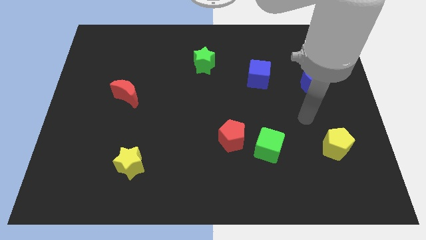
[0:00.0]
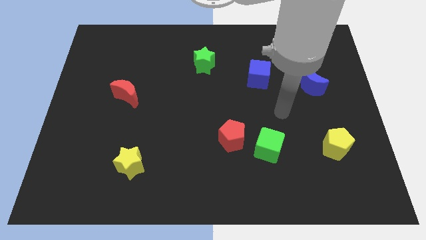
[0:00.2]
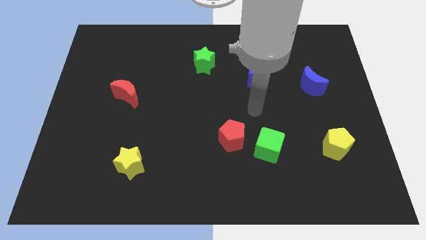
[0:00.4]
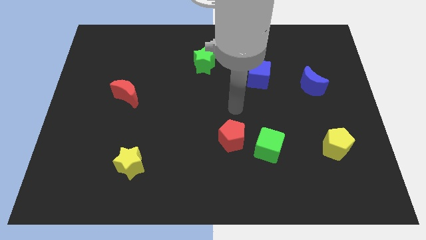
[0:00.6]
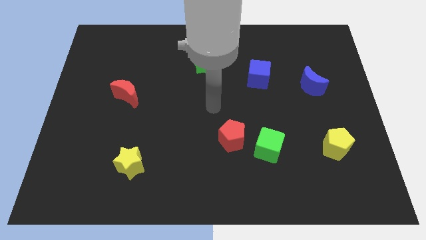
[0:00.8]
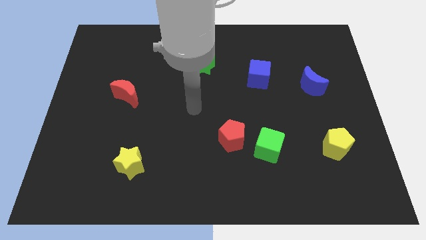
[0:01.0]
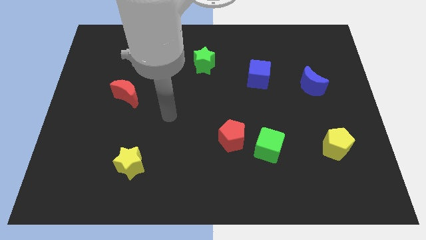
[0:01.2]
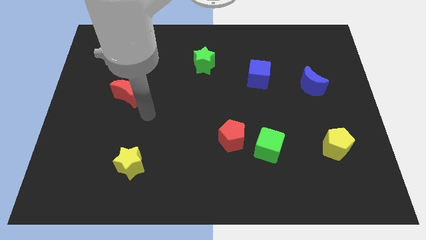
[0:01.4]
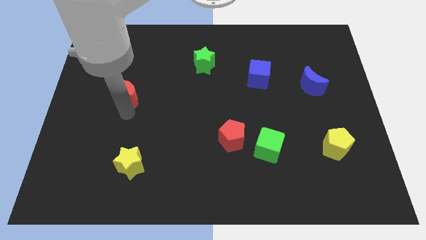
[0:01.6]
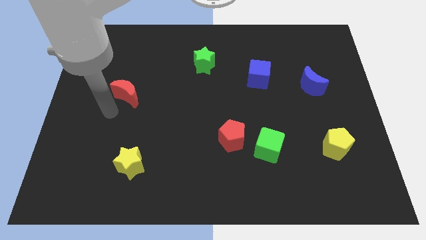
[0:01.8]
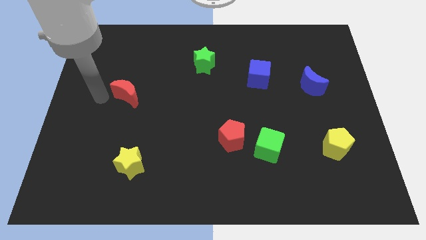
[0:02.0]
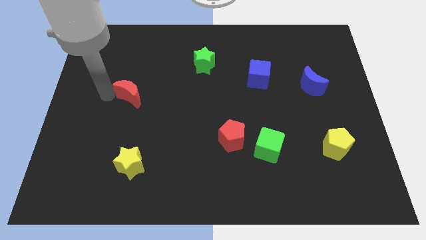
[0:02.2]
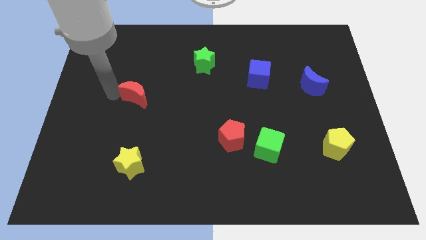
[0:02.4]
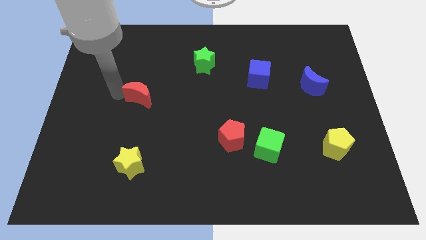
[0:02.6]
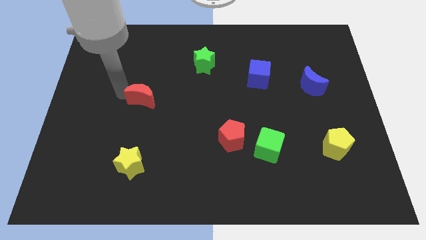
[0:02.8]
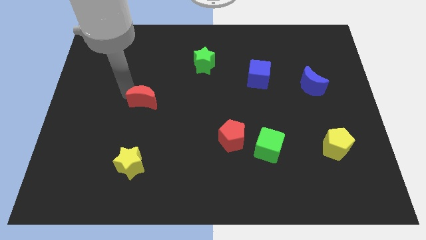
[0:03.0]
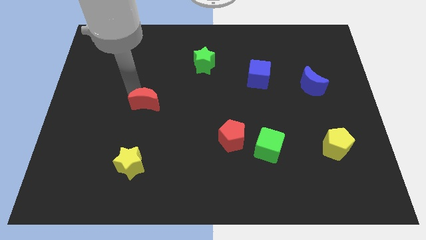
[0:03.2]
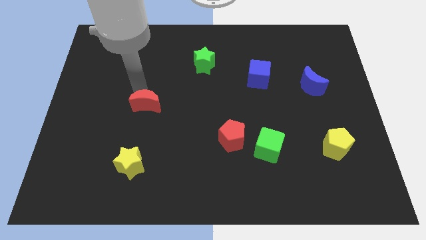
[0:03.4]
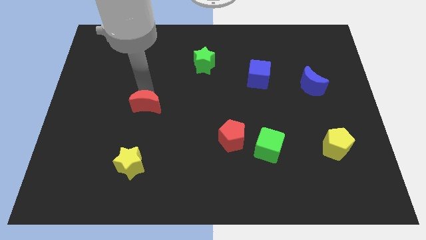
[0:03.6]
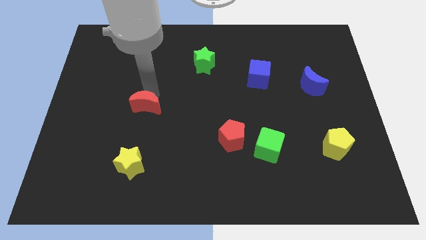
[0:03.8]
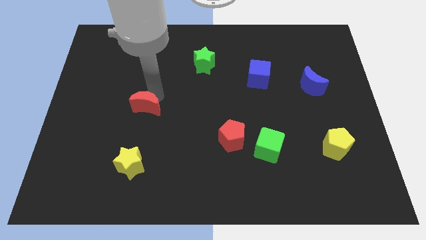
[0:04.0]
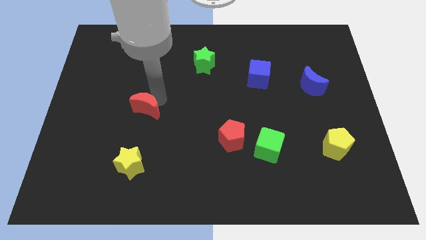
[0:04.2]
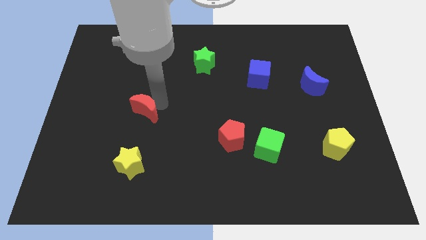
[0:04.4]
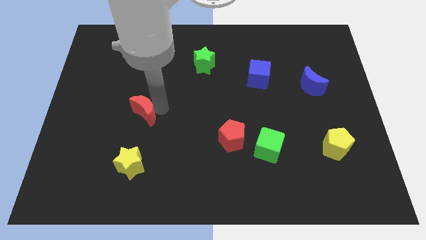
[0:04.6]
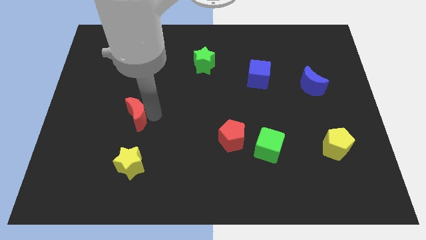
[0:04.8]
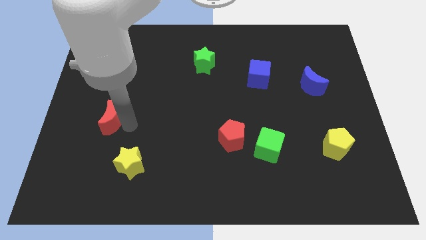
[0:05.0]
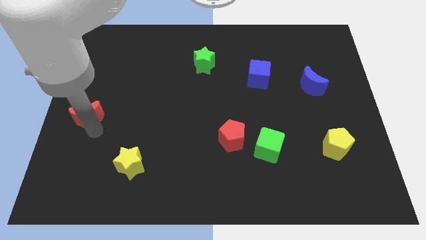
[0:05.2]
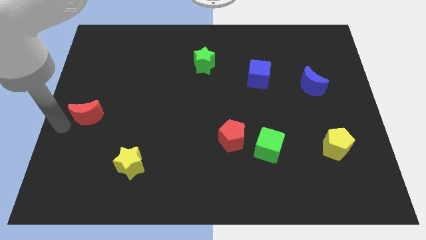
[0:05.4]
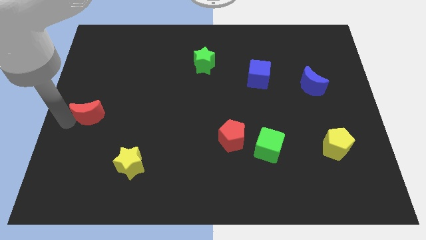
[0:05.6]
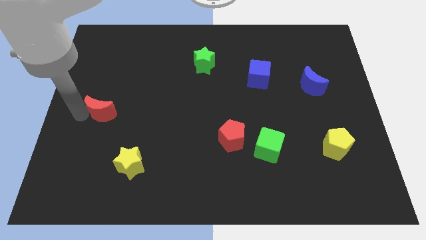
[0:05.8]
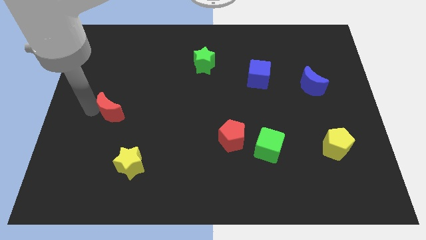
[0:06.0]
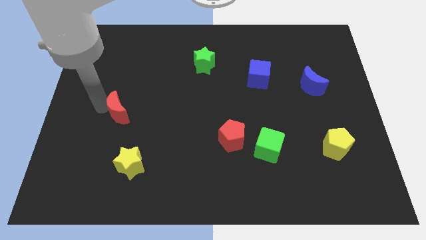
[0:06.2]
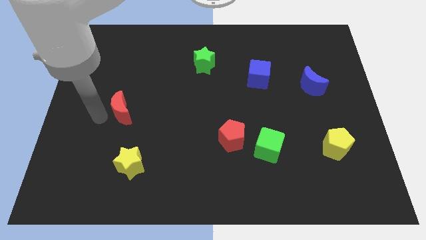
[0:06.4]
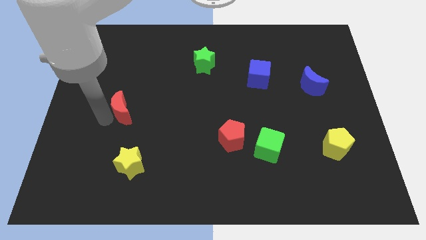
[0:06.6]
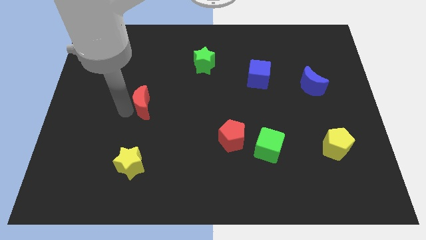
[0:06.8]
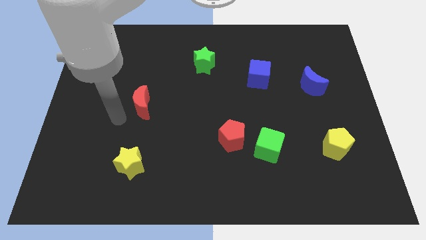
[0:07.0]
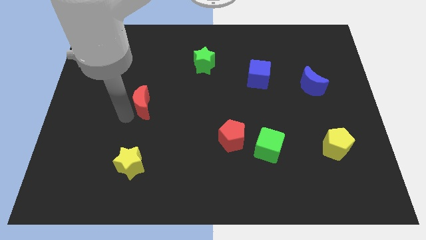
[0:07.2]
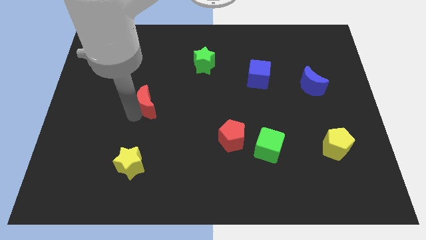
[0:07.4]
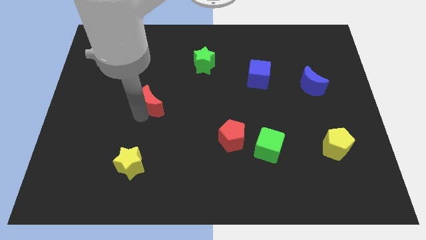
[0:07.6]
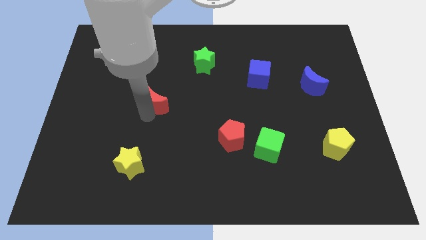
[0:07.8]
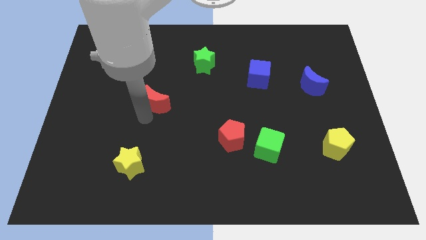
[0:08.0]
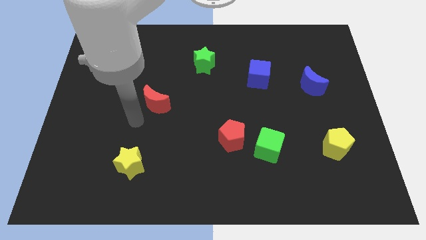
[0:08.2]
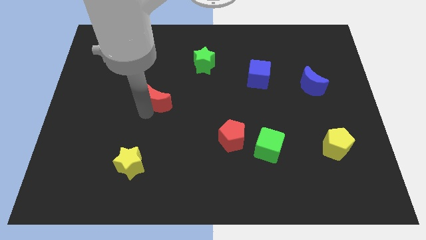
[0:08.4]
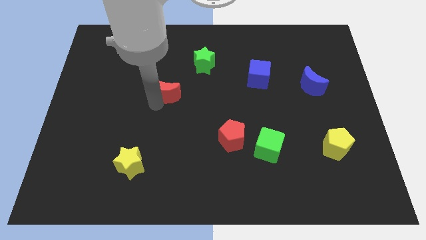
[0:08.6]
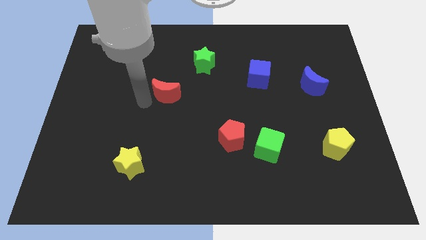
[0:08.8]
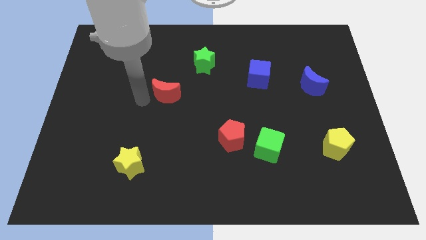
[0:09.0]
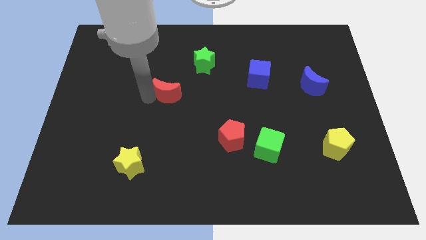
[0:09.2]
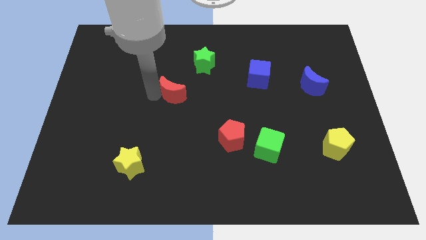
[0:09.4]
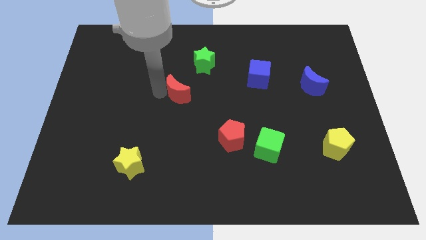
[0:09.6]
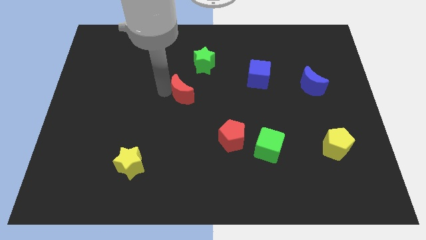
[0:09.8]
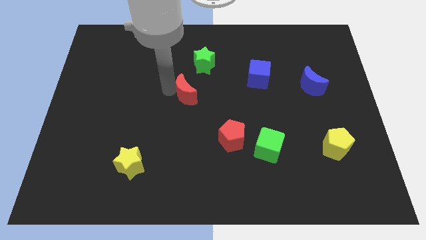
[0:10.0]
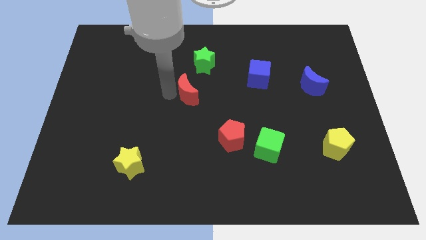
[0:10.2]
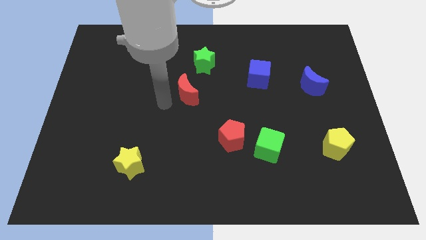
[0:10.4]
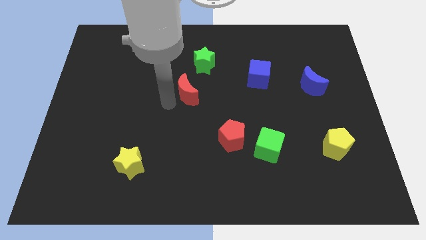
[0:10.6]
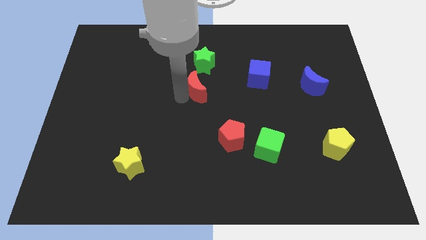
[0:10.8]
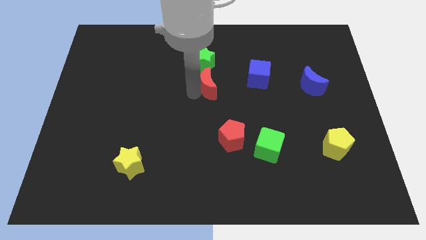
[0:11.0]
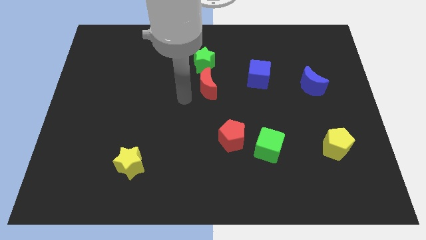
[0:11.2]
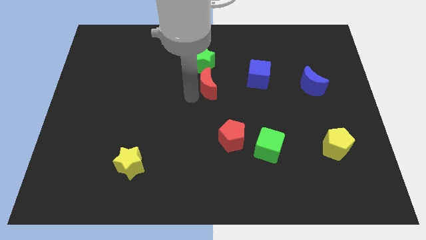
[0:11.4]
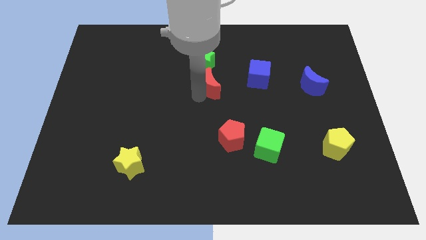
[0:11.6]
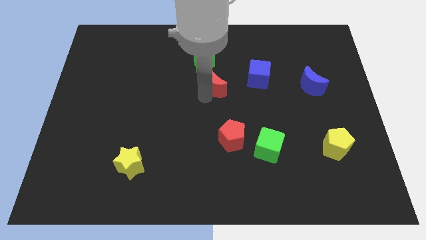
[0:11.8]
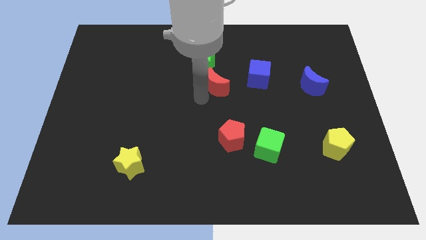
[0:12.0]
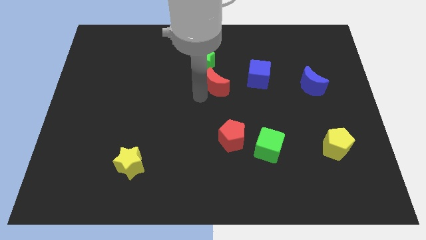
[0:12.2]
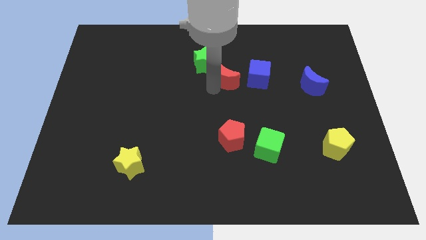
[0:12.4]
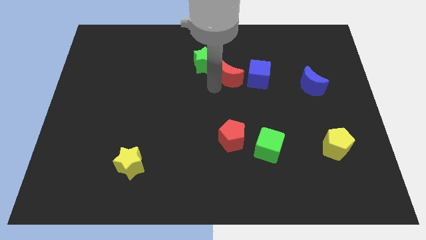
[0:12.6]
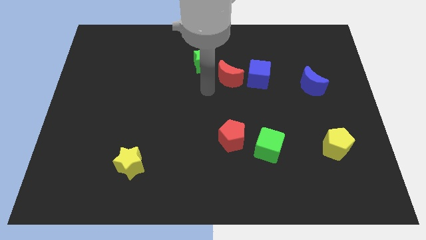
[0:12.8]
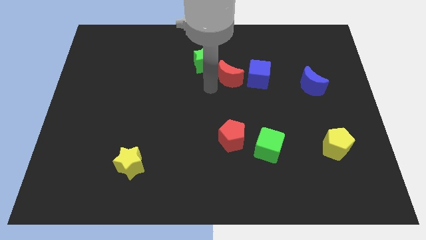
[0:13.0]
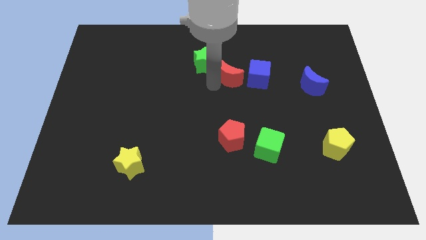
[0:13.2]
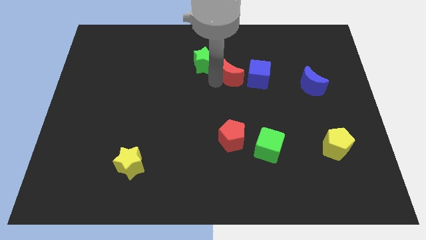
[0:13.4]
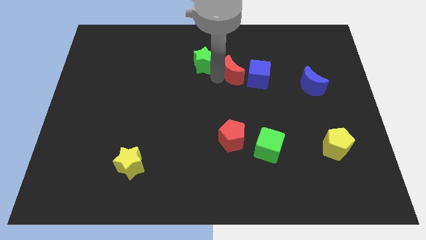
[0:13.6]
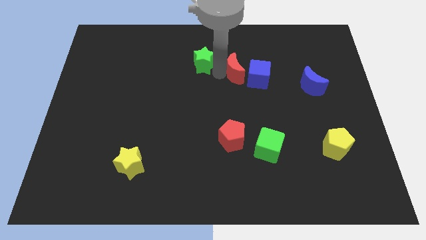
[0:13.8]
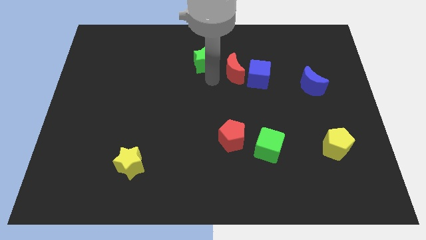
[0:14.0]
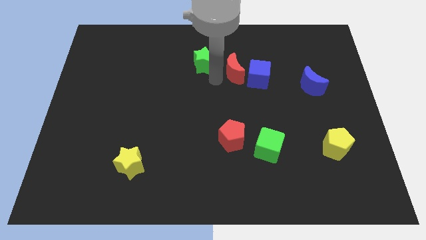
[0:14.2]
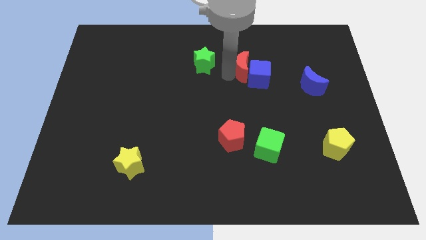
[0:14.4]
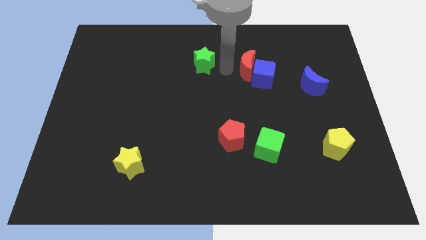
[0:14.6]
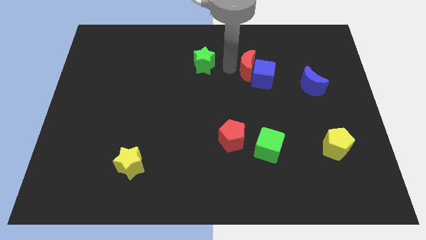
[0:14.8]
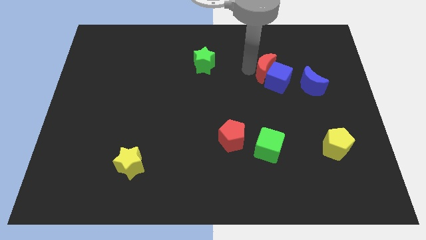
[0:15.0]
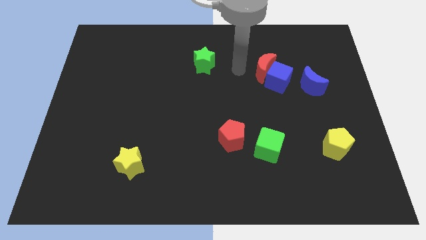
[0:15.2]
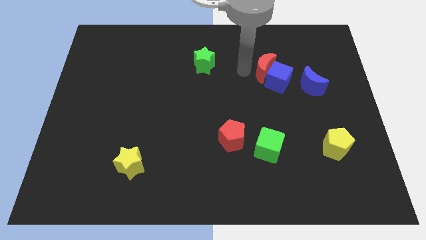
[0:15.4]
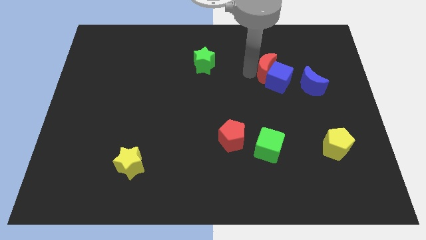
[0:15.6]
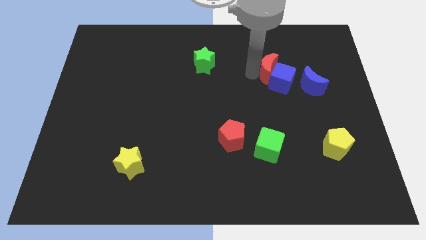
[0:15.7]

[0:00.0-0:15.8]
put the red moon to the top left side of the blue moon
